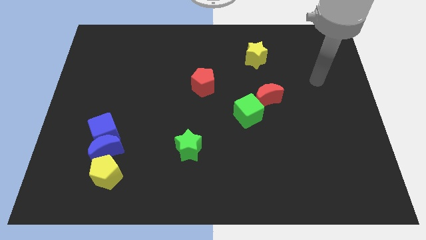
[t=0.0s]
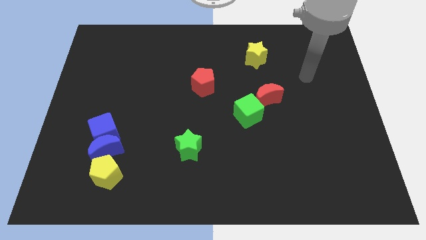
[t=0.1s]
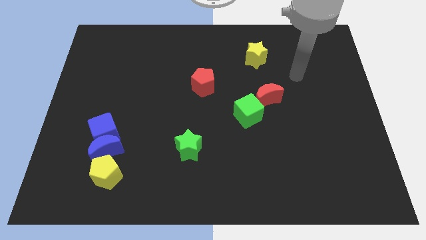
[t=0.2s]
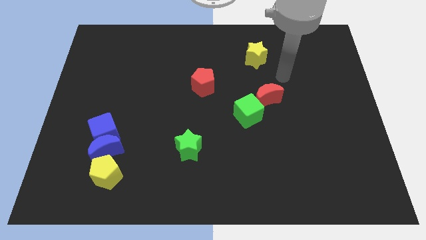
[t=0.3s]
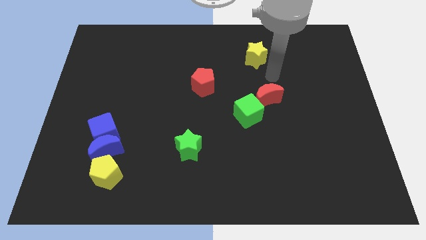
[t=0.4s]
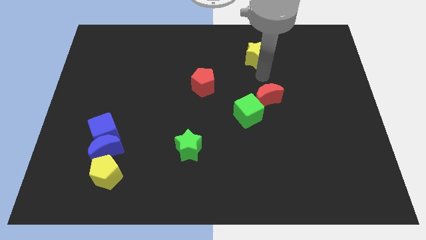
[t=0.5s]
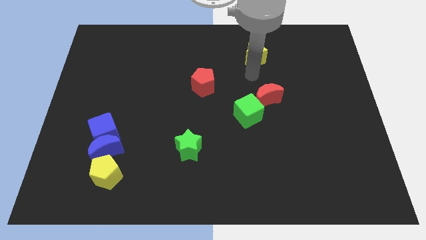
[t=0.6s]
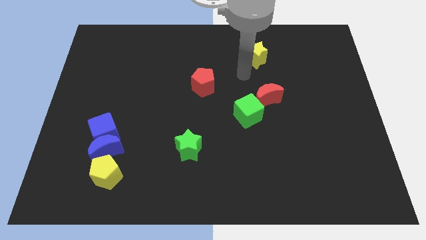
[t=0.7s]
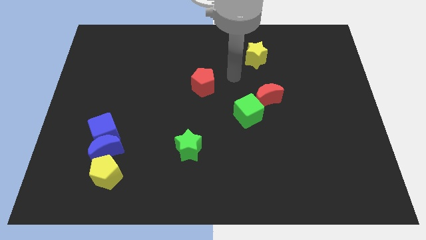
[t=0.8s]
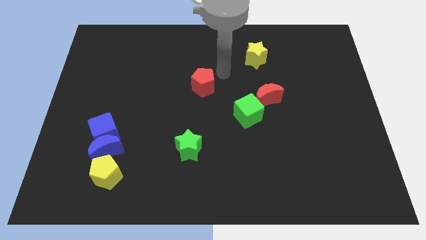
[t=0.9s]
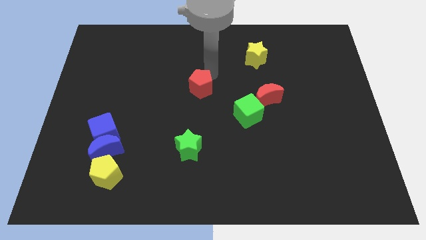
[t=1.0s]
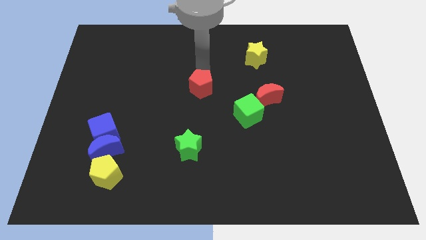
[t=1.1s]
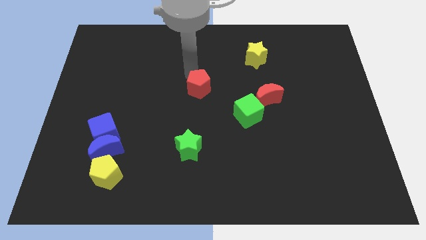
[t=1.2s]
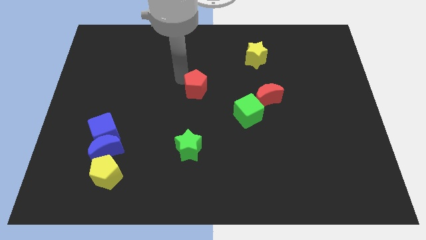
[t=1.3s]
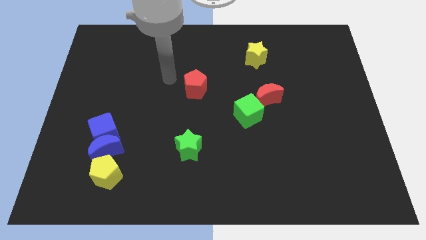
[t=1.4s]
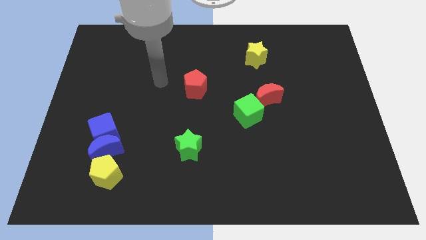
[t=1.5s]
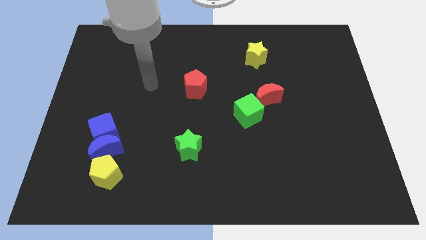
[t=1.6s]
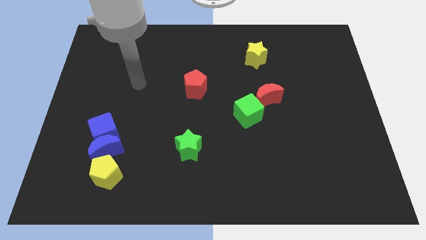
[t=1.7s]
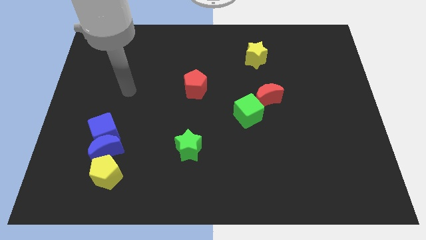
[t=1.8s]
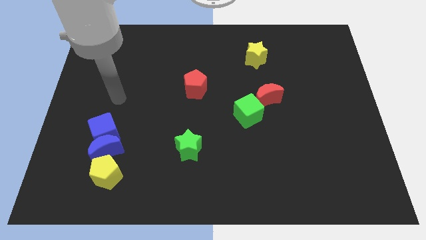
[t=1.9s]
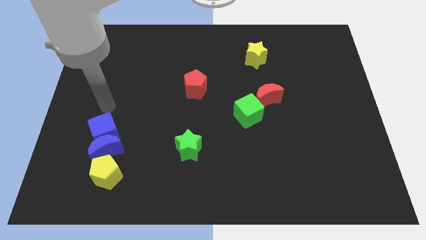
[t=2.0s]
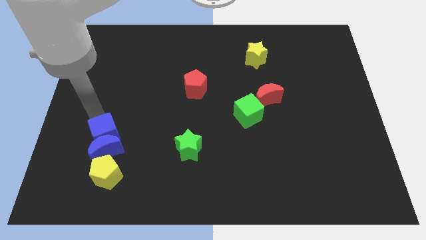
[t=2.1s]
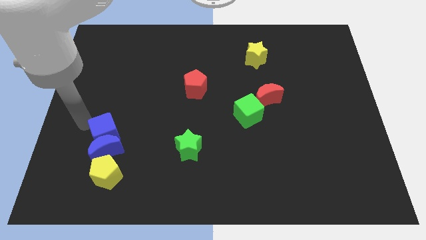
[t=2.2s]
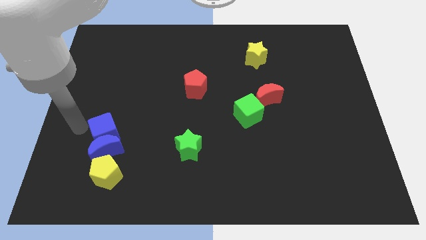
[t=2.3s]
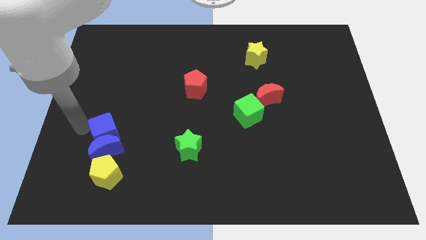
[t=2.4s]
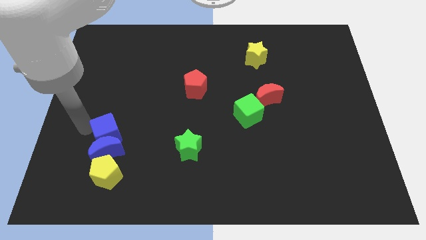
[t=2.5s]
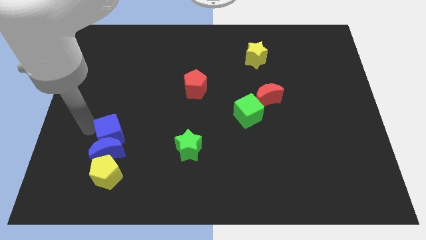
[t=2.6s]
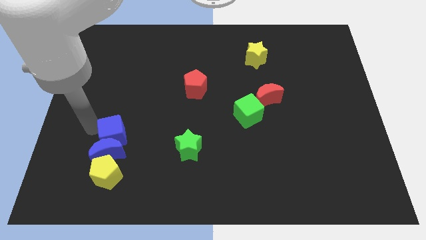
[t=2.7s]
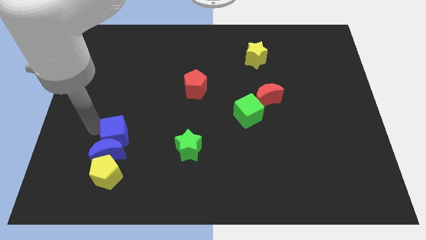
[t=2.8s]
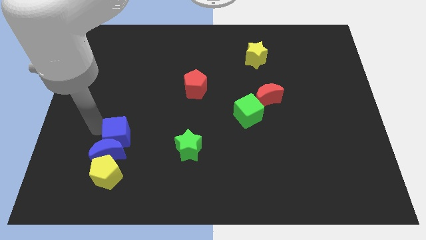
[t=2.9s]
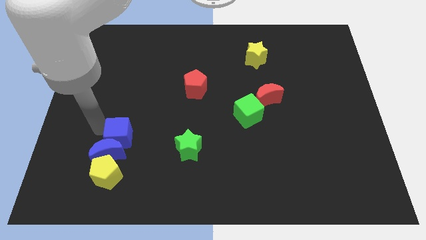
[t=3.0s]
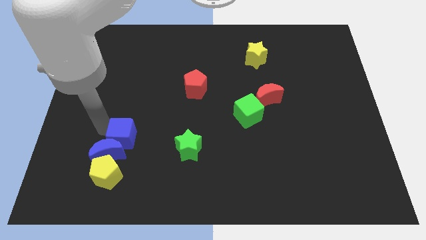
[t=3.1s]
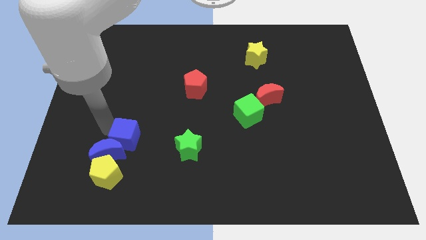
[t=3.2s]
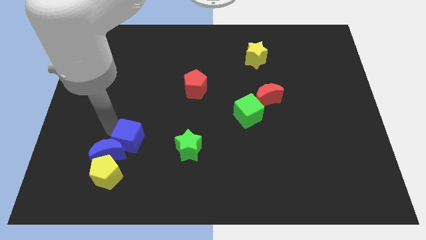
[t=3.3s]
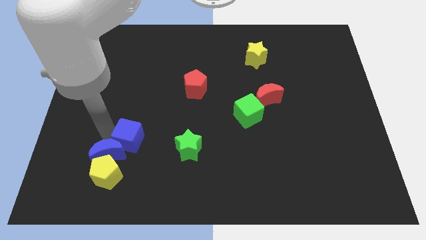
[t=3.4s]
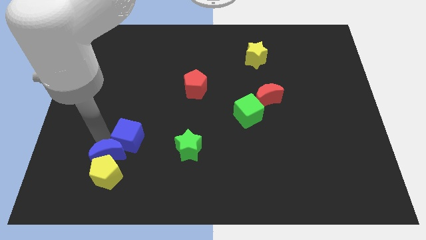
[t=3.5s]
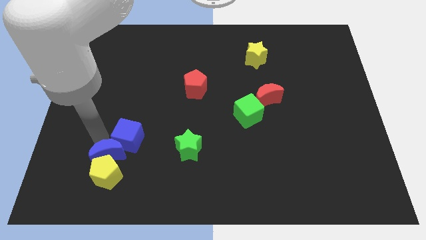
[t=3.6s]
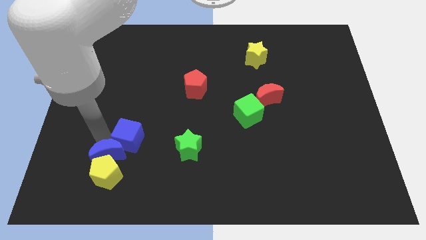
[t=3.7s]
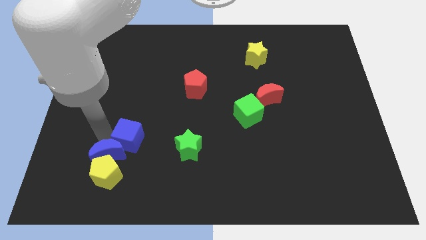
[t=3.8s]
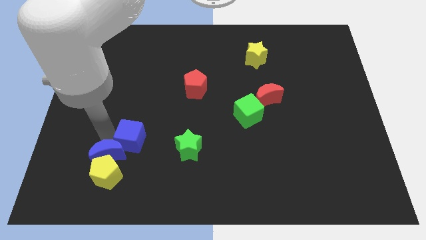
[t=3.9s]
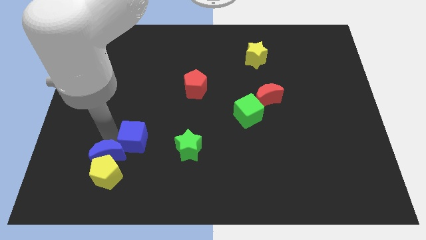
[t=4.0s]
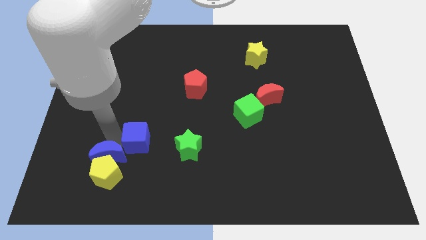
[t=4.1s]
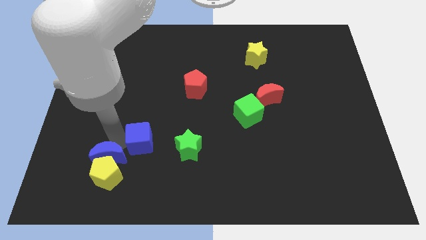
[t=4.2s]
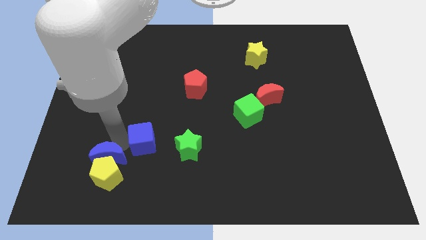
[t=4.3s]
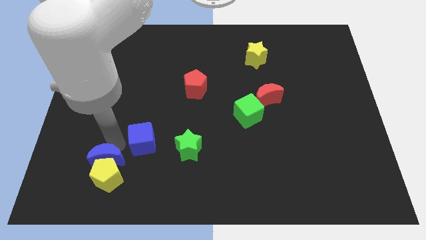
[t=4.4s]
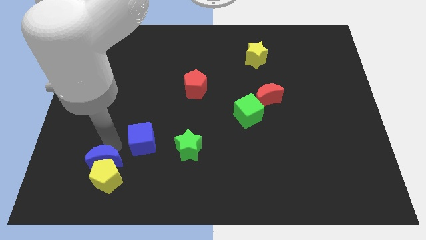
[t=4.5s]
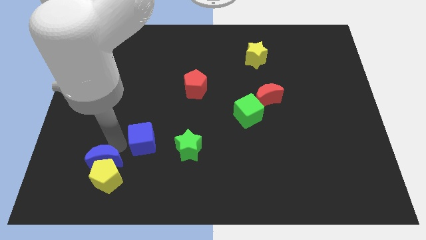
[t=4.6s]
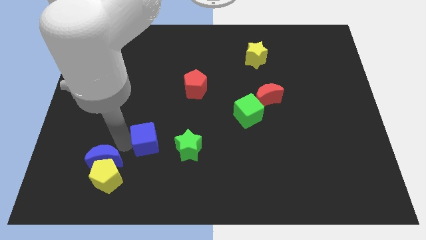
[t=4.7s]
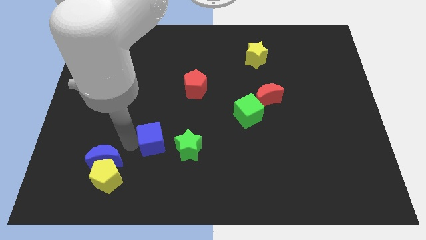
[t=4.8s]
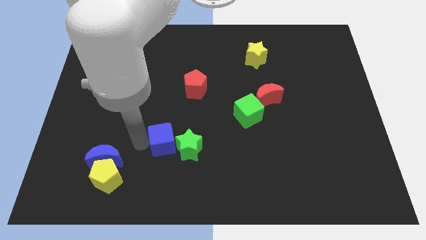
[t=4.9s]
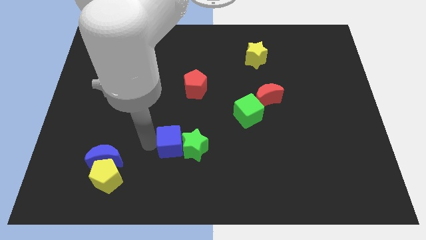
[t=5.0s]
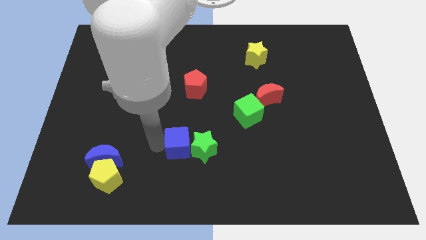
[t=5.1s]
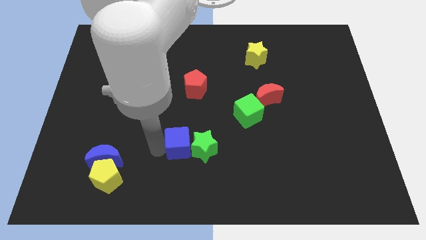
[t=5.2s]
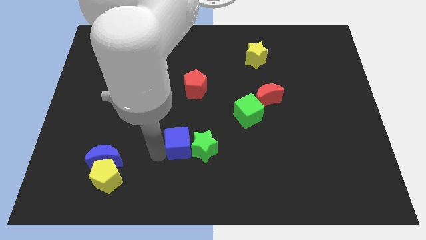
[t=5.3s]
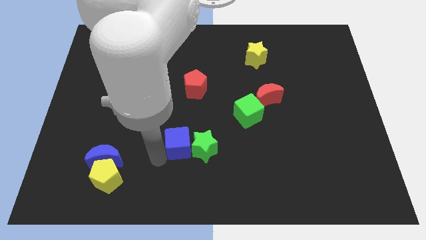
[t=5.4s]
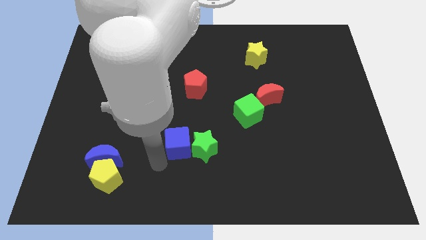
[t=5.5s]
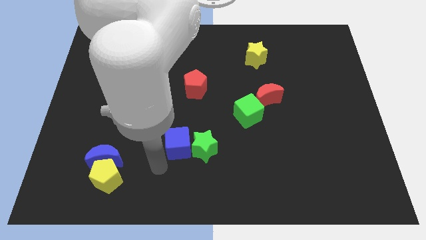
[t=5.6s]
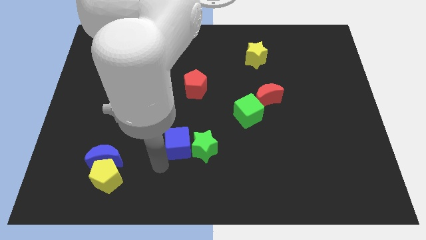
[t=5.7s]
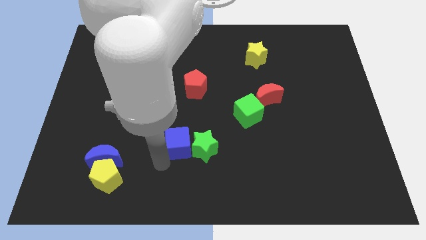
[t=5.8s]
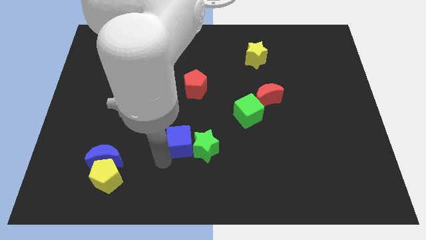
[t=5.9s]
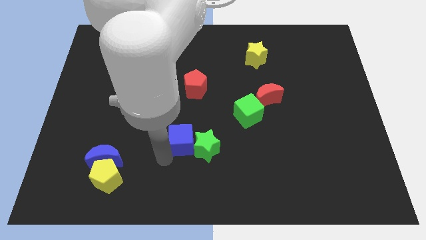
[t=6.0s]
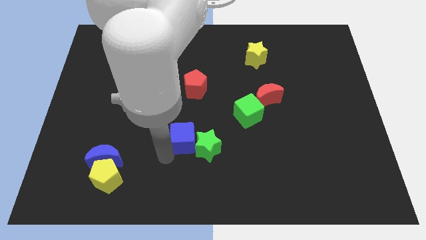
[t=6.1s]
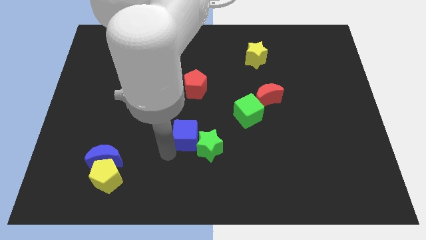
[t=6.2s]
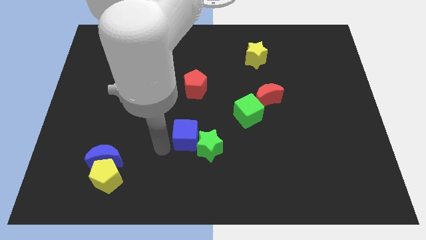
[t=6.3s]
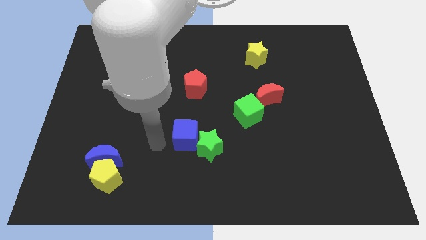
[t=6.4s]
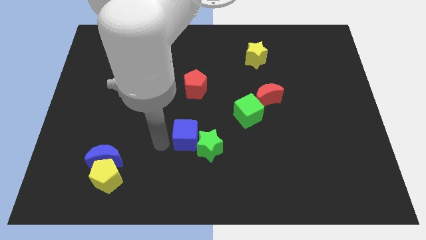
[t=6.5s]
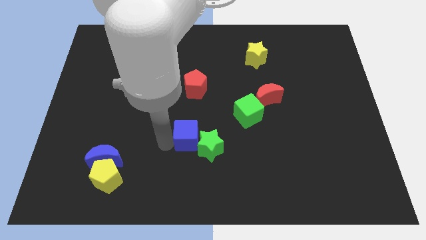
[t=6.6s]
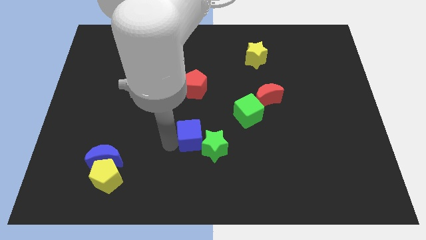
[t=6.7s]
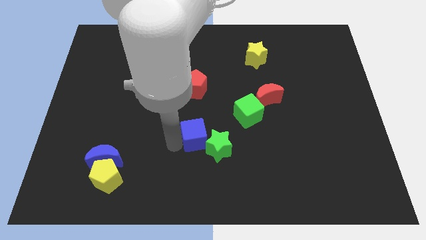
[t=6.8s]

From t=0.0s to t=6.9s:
push the blue cube right

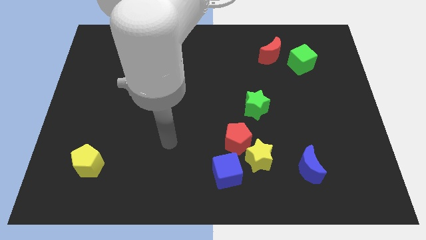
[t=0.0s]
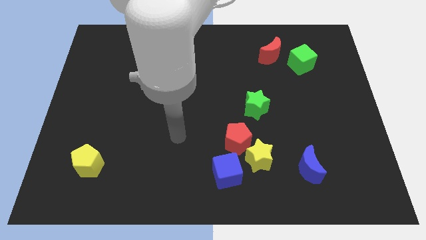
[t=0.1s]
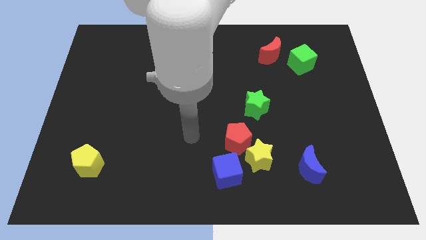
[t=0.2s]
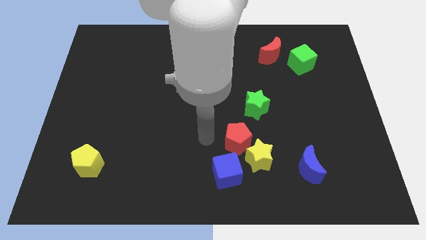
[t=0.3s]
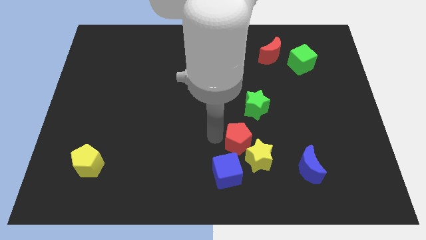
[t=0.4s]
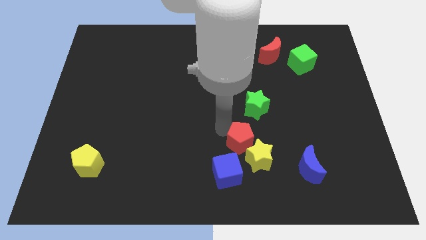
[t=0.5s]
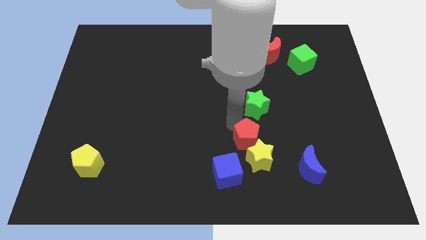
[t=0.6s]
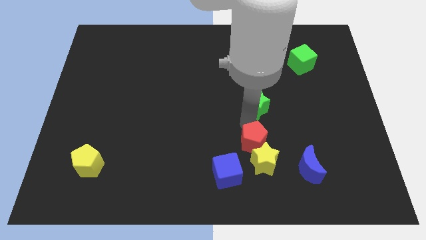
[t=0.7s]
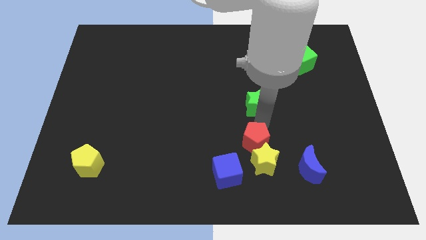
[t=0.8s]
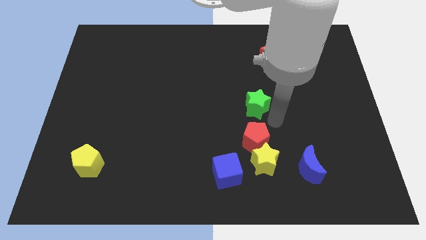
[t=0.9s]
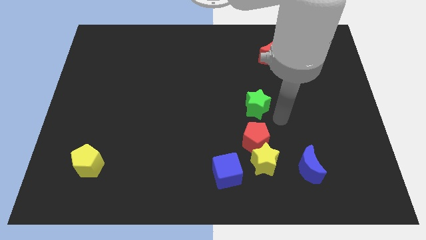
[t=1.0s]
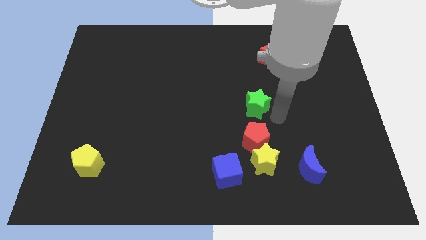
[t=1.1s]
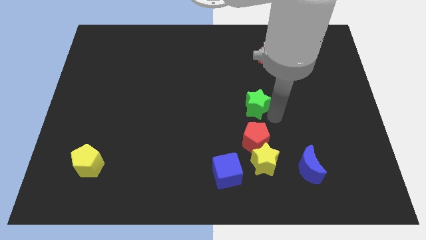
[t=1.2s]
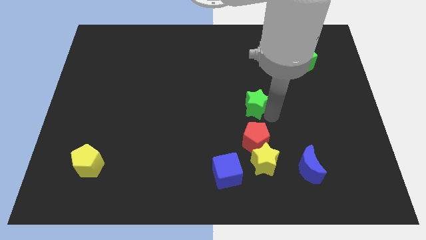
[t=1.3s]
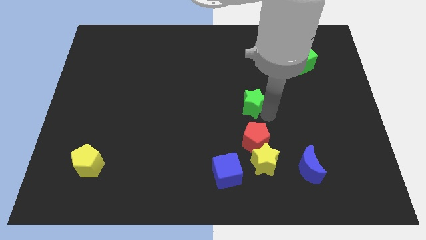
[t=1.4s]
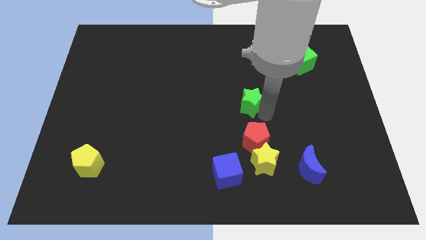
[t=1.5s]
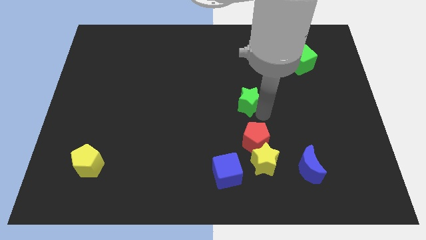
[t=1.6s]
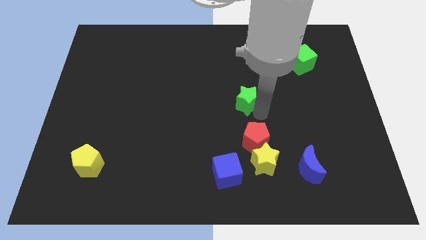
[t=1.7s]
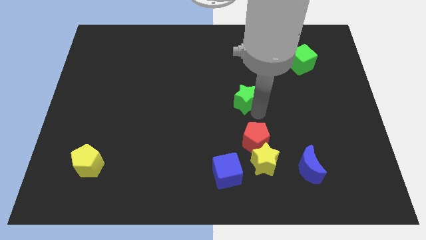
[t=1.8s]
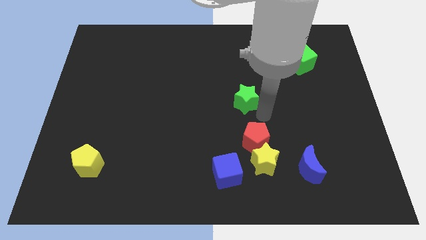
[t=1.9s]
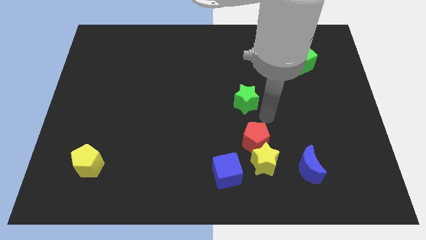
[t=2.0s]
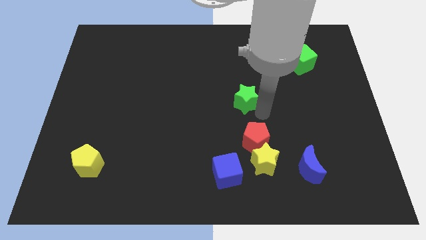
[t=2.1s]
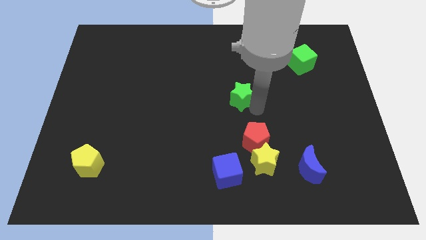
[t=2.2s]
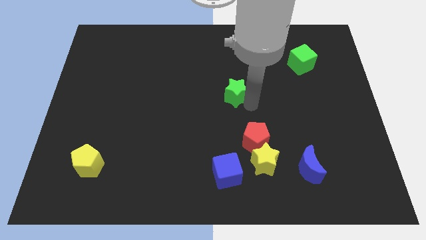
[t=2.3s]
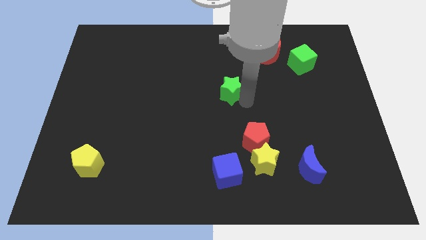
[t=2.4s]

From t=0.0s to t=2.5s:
slightly slide the green star up and left diagonally
